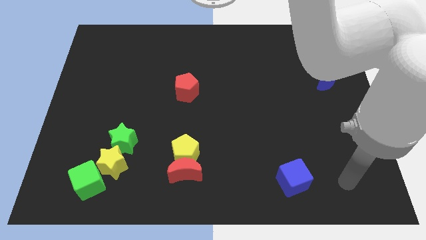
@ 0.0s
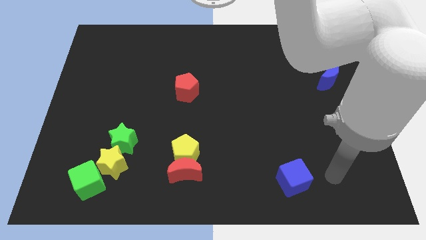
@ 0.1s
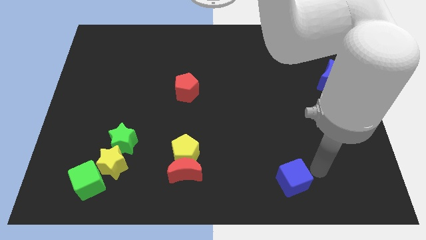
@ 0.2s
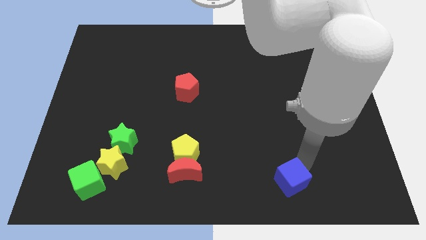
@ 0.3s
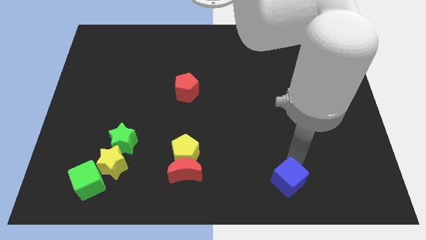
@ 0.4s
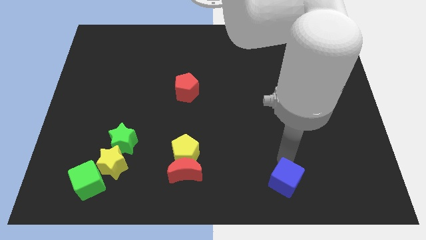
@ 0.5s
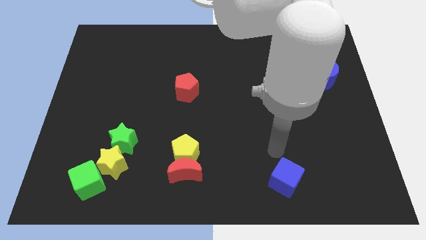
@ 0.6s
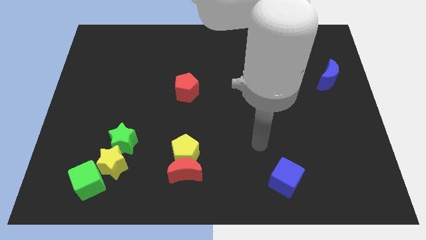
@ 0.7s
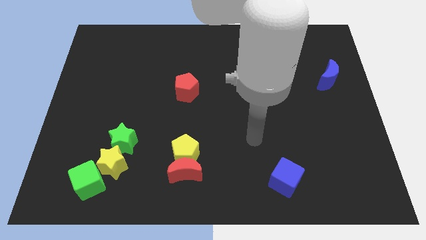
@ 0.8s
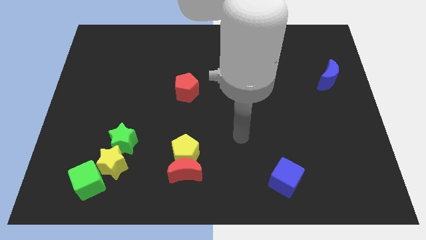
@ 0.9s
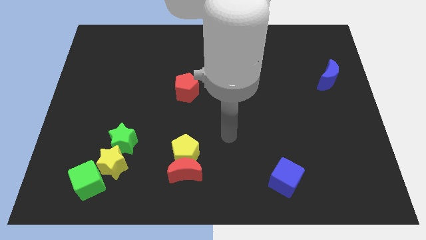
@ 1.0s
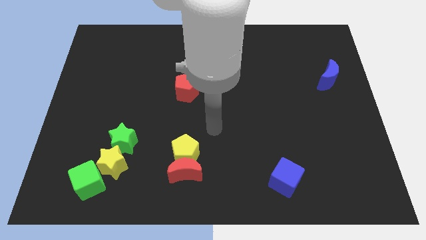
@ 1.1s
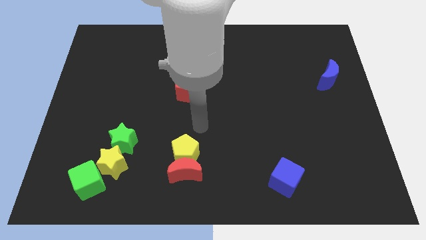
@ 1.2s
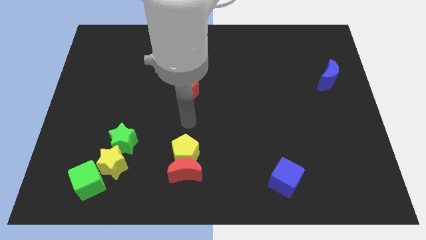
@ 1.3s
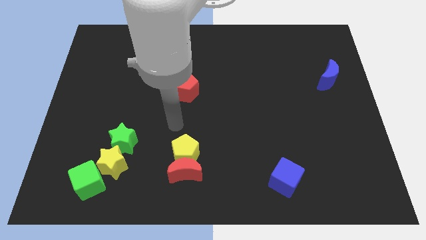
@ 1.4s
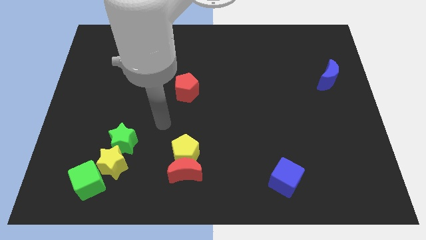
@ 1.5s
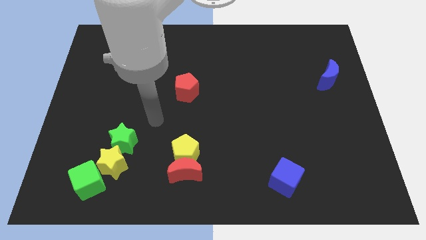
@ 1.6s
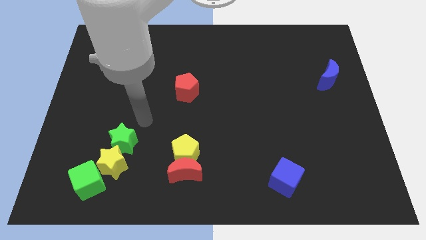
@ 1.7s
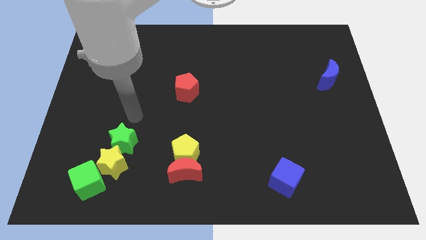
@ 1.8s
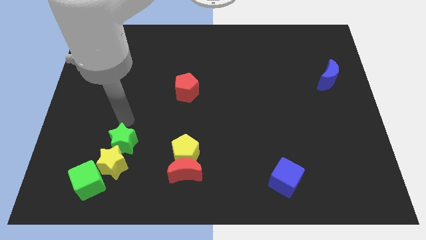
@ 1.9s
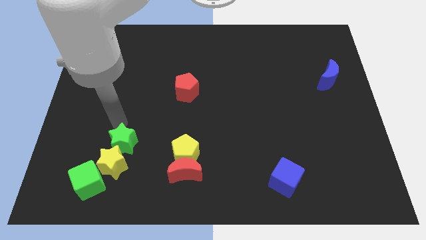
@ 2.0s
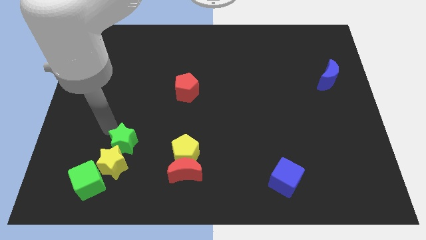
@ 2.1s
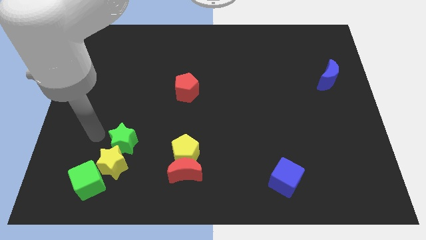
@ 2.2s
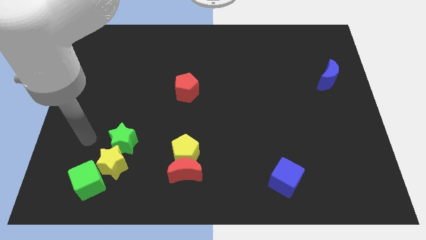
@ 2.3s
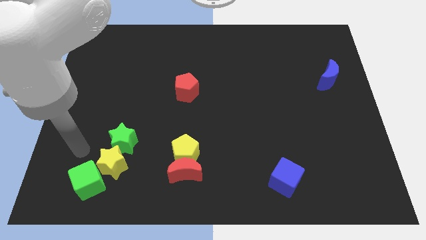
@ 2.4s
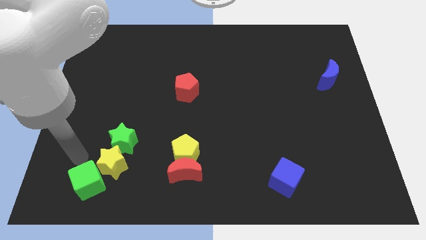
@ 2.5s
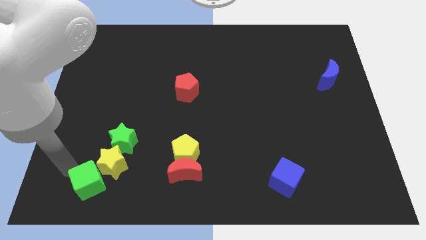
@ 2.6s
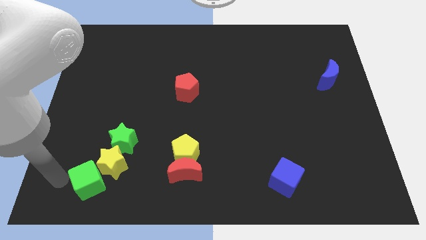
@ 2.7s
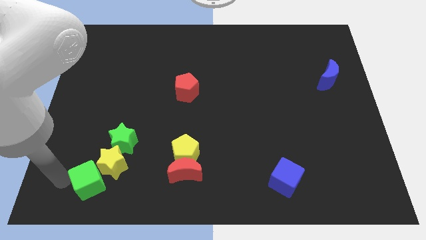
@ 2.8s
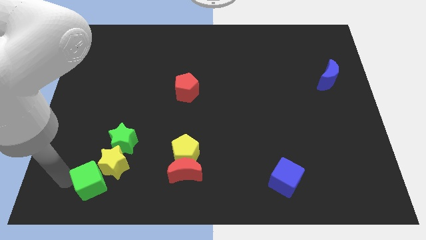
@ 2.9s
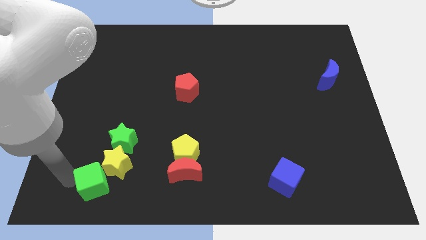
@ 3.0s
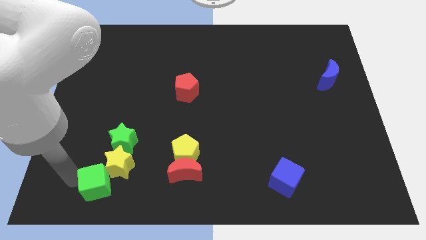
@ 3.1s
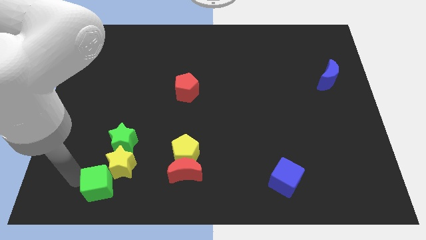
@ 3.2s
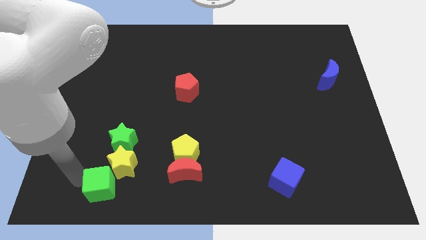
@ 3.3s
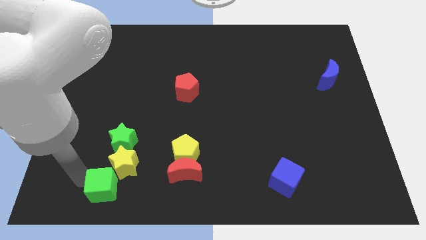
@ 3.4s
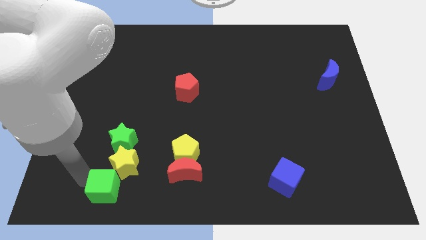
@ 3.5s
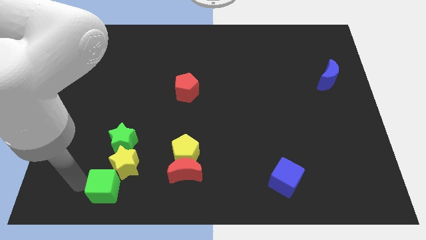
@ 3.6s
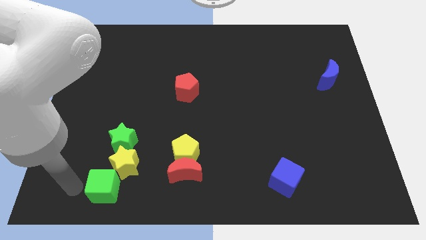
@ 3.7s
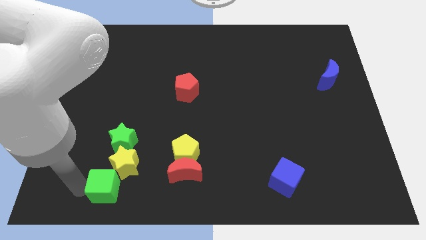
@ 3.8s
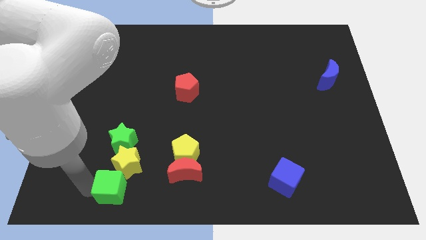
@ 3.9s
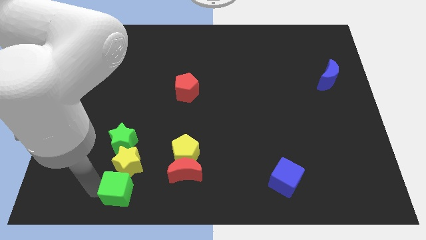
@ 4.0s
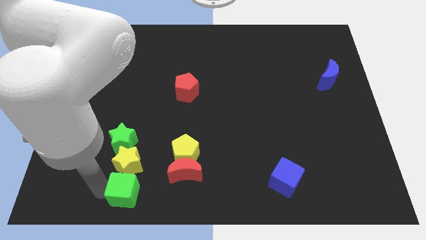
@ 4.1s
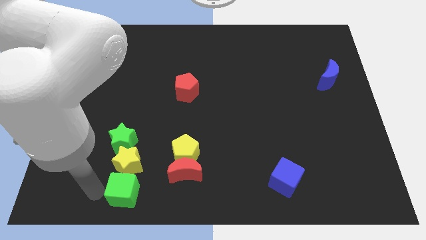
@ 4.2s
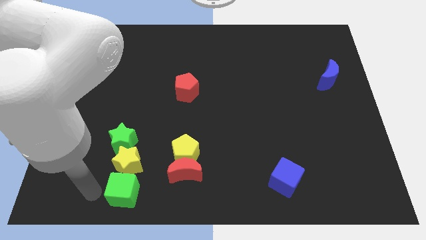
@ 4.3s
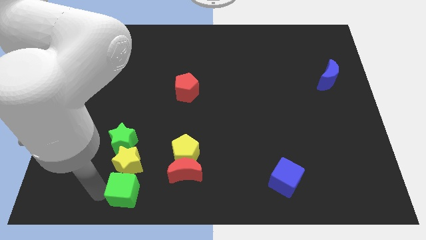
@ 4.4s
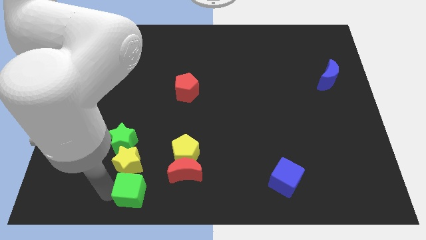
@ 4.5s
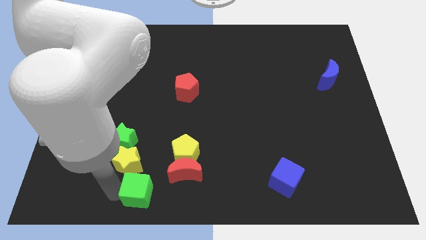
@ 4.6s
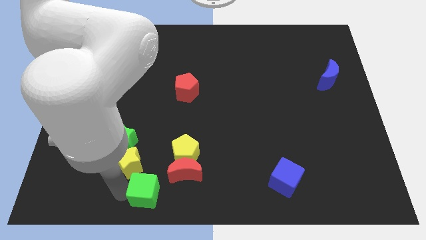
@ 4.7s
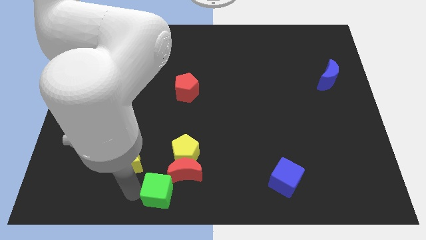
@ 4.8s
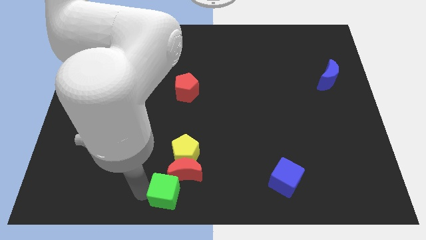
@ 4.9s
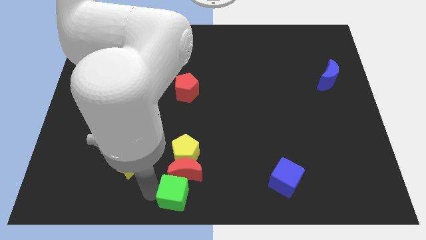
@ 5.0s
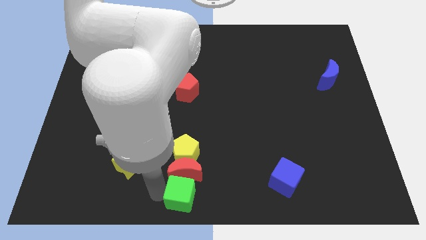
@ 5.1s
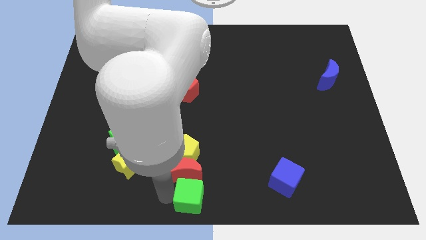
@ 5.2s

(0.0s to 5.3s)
slide the green cube to the right

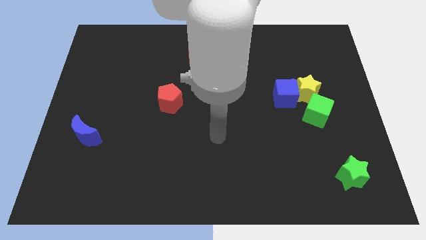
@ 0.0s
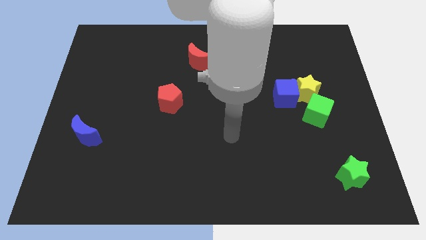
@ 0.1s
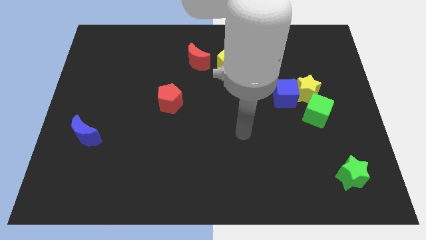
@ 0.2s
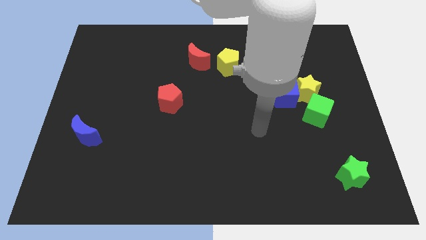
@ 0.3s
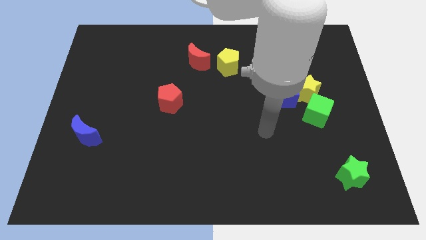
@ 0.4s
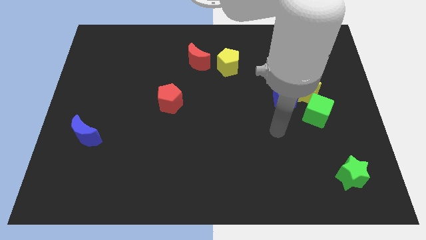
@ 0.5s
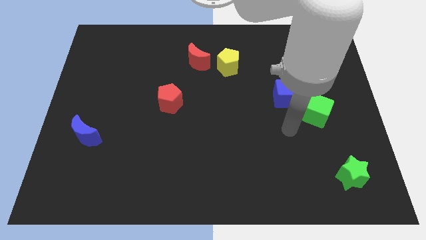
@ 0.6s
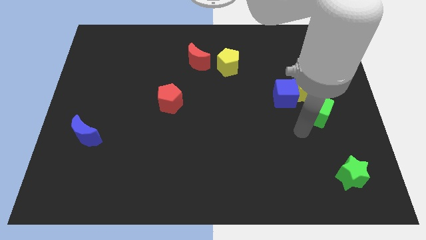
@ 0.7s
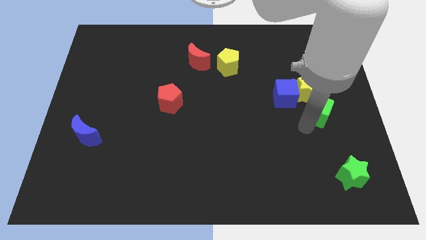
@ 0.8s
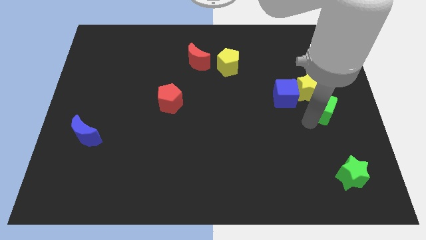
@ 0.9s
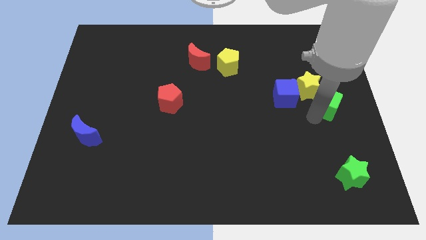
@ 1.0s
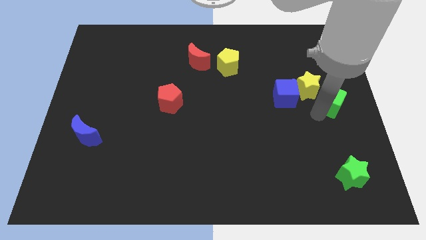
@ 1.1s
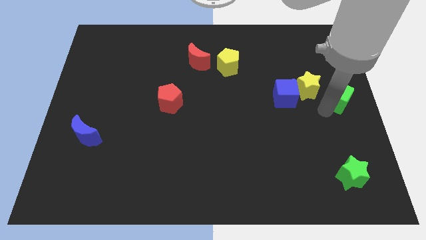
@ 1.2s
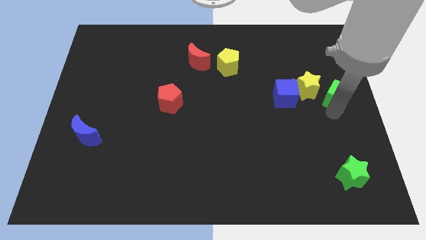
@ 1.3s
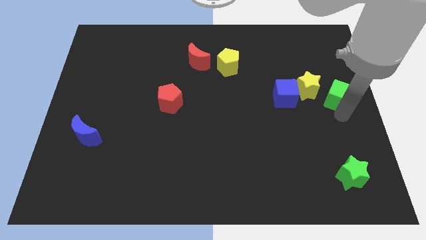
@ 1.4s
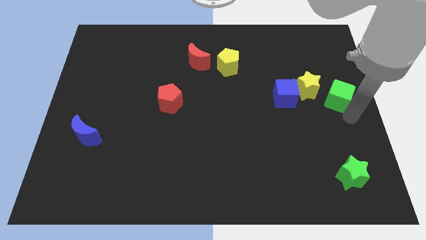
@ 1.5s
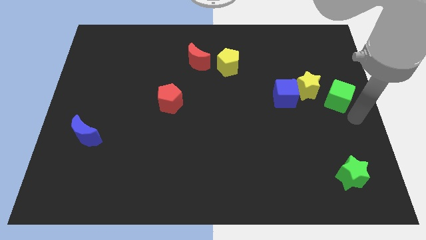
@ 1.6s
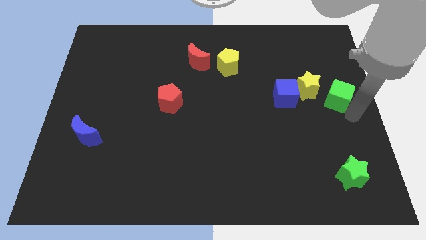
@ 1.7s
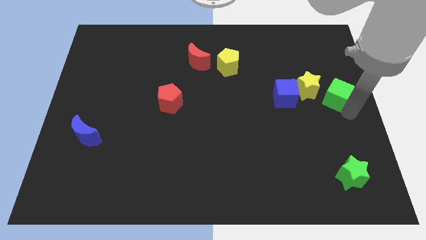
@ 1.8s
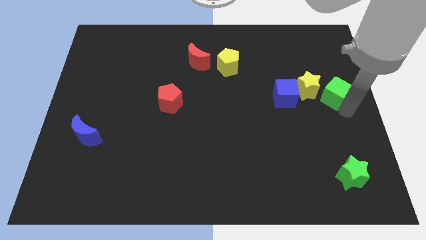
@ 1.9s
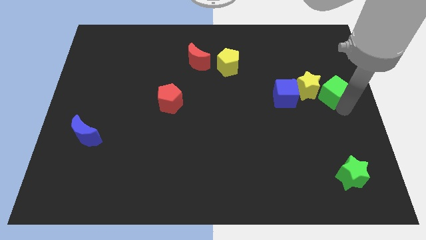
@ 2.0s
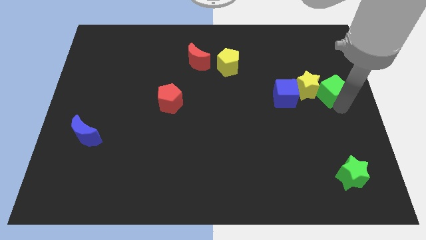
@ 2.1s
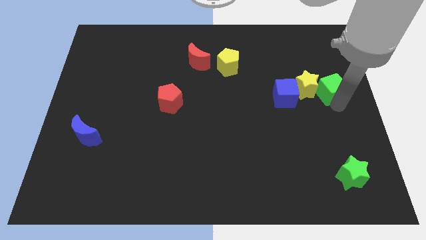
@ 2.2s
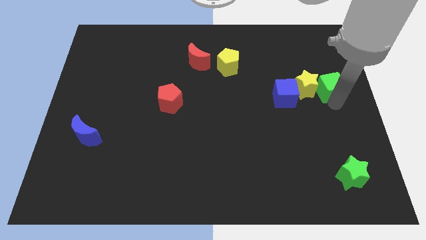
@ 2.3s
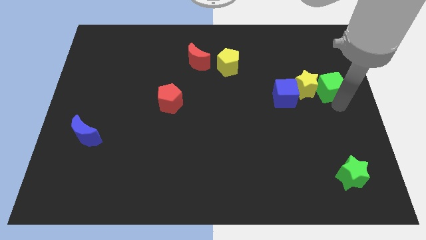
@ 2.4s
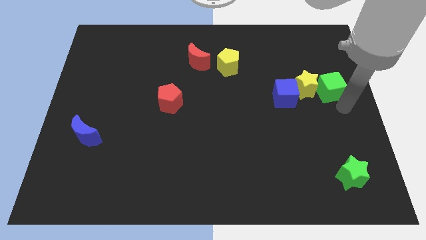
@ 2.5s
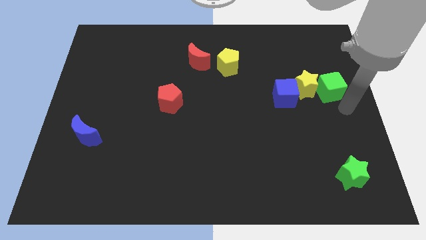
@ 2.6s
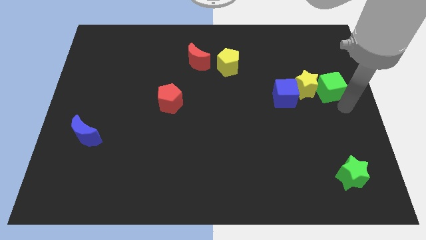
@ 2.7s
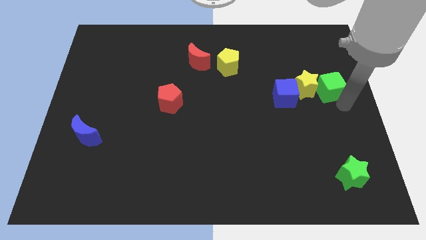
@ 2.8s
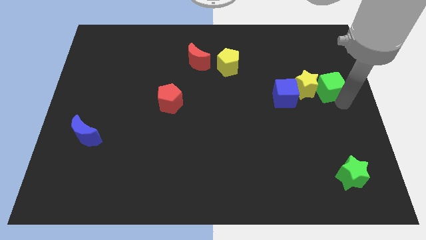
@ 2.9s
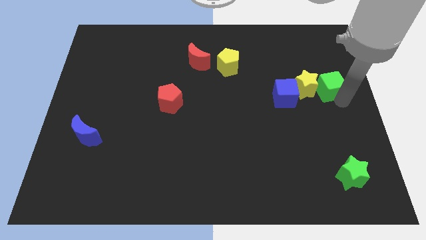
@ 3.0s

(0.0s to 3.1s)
slightly slide the green cube upwards
